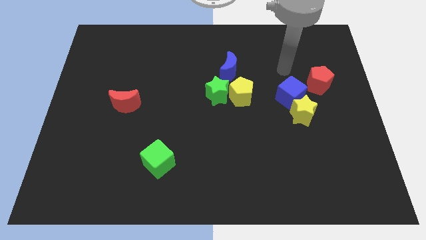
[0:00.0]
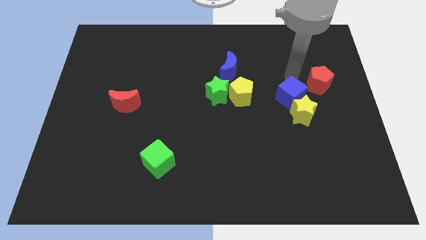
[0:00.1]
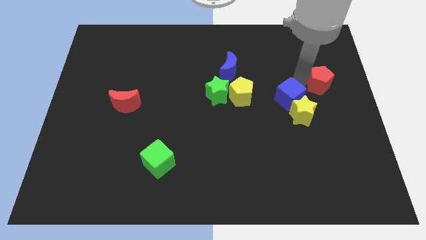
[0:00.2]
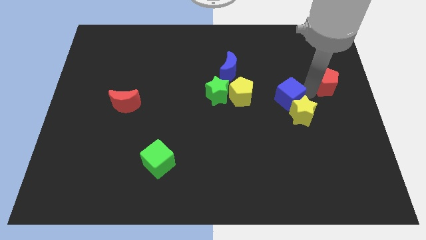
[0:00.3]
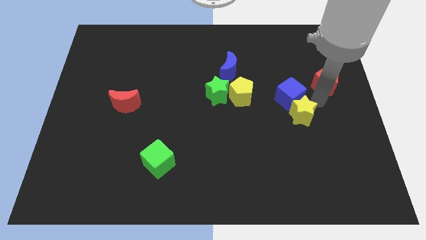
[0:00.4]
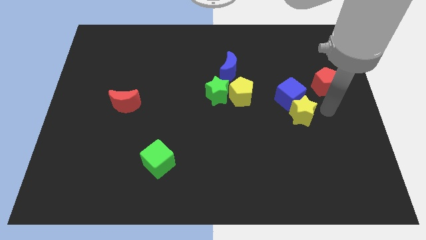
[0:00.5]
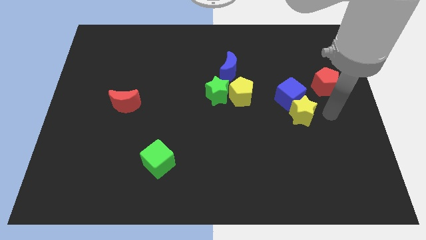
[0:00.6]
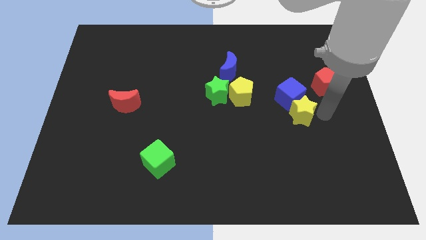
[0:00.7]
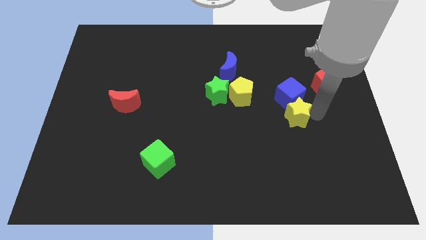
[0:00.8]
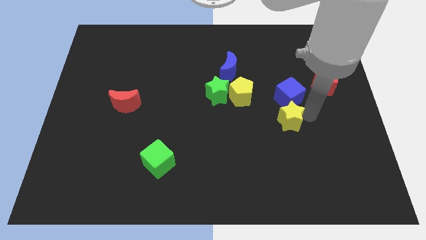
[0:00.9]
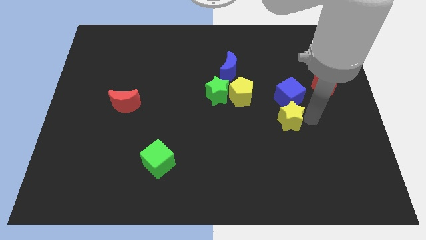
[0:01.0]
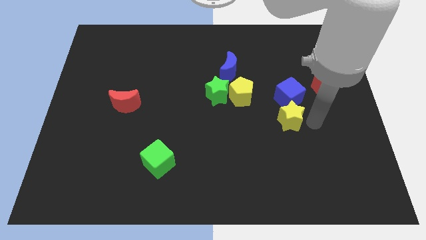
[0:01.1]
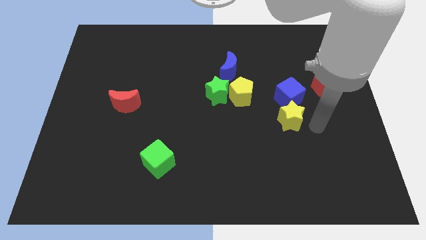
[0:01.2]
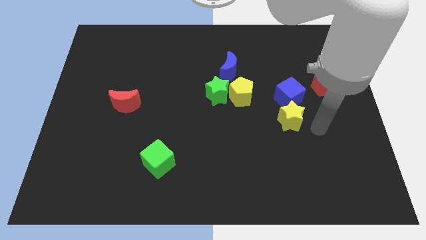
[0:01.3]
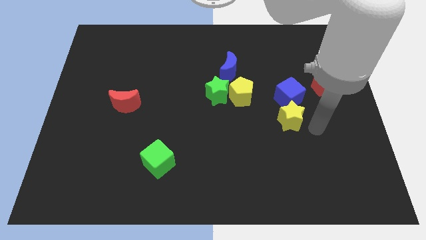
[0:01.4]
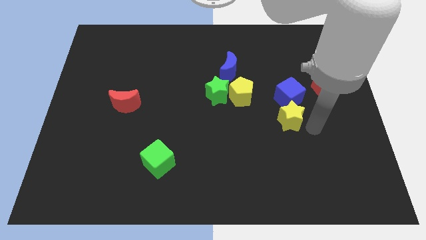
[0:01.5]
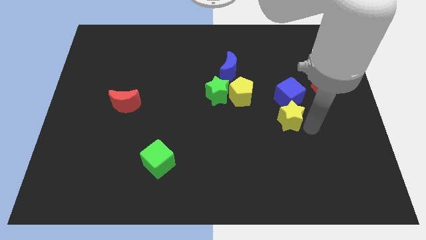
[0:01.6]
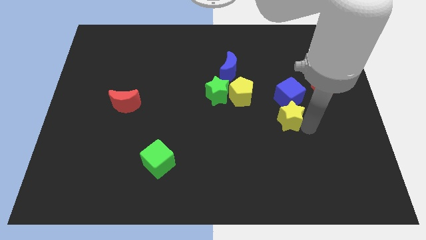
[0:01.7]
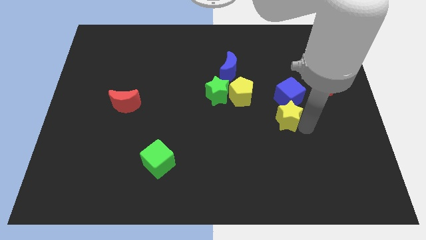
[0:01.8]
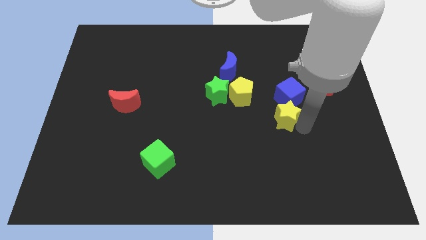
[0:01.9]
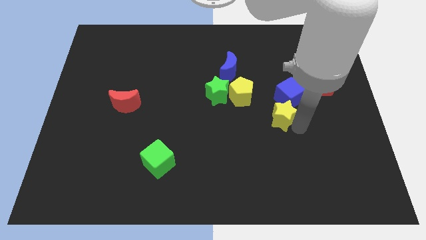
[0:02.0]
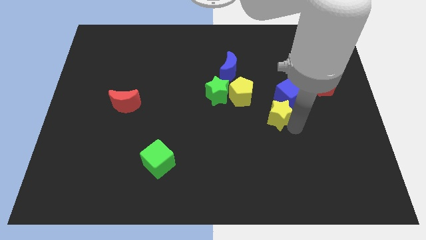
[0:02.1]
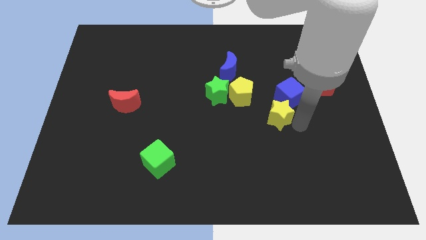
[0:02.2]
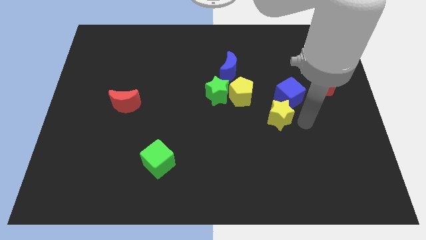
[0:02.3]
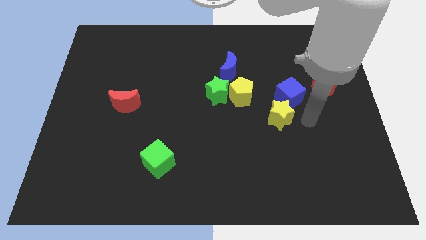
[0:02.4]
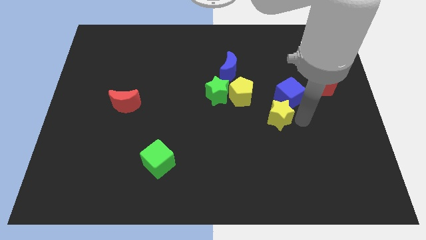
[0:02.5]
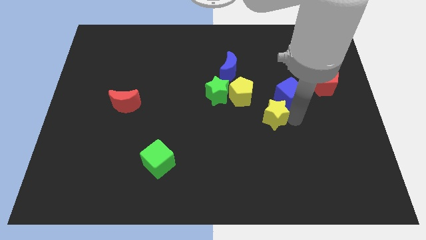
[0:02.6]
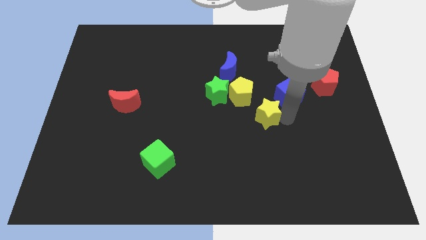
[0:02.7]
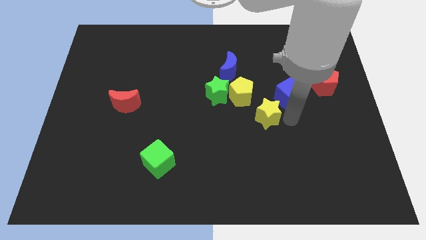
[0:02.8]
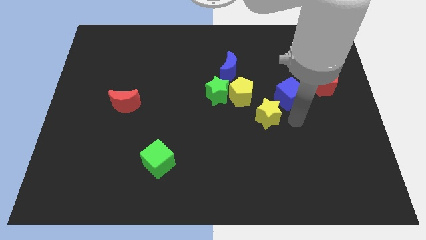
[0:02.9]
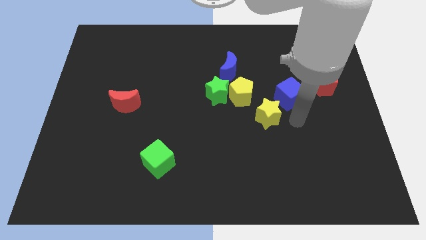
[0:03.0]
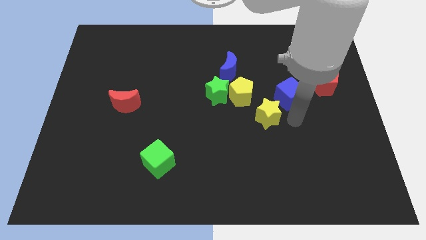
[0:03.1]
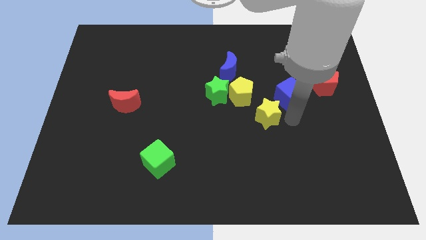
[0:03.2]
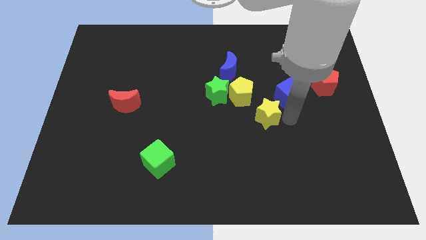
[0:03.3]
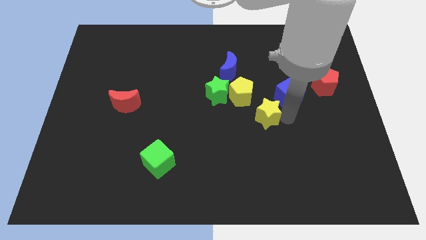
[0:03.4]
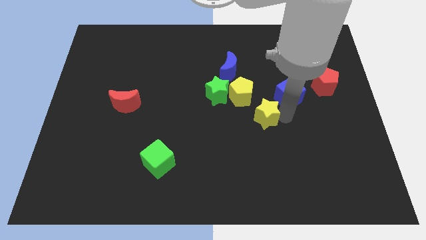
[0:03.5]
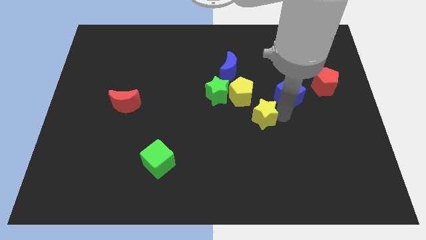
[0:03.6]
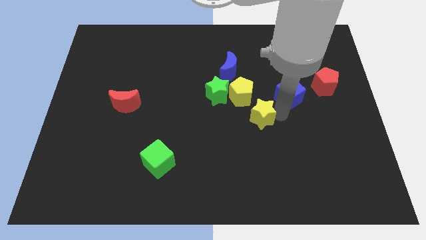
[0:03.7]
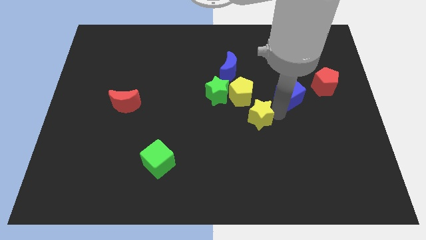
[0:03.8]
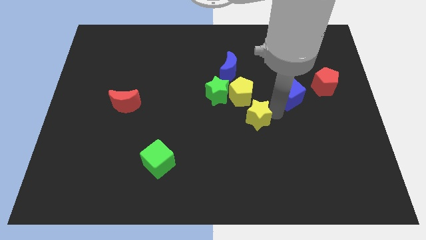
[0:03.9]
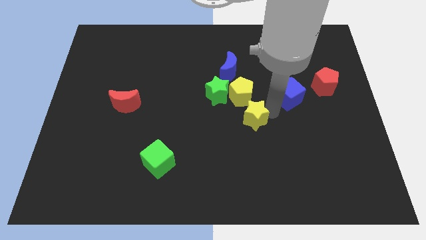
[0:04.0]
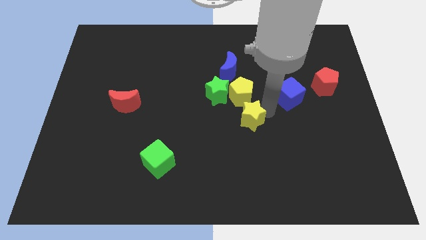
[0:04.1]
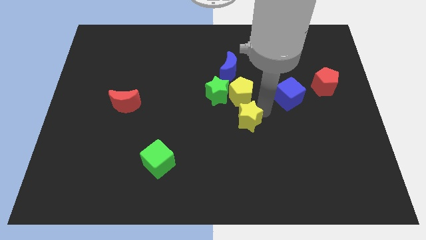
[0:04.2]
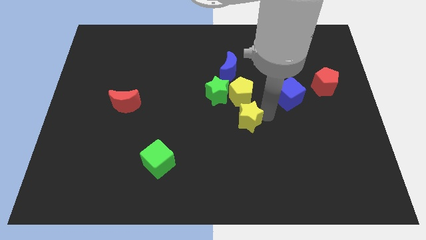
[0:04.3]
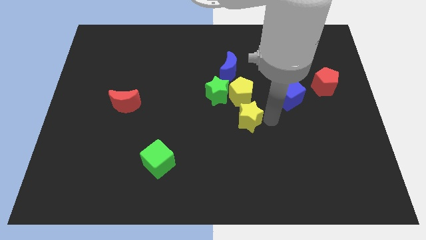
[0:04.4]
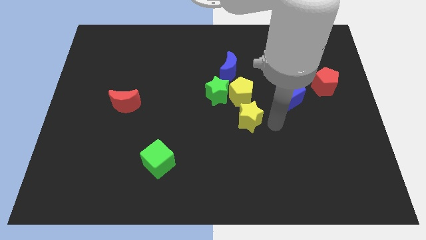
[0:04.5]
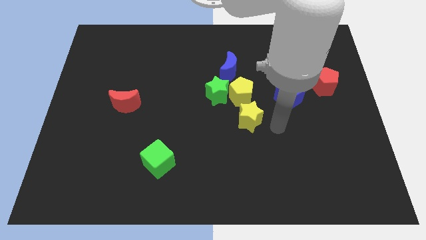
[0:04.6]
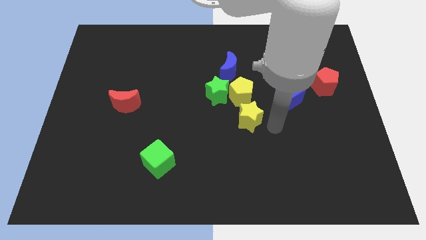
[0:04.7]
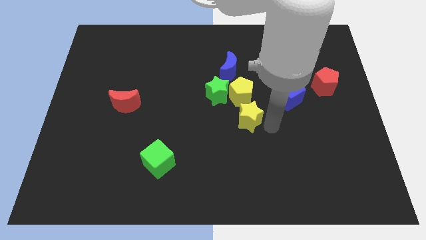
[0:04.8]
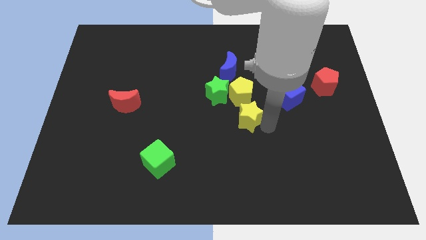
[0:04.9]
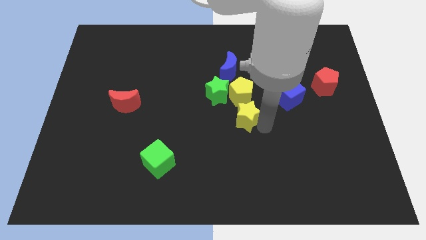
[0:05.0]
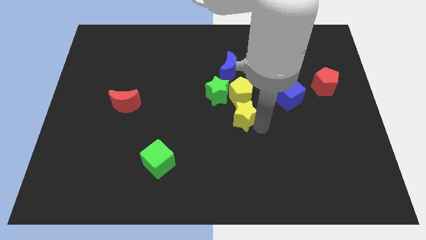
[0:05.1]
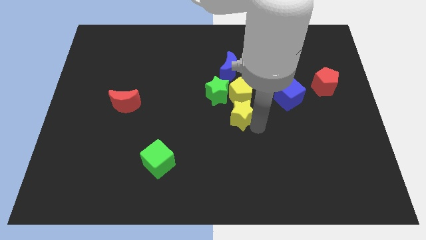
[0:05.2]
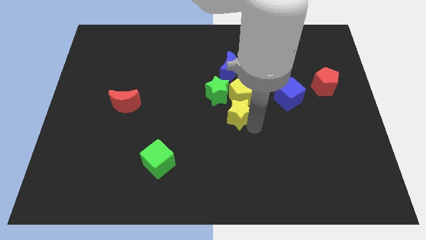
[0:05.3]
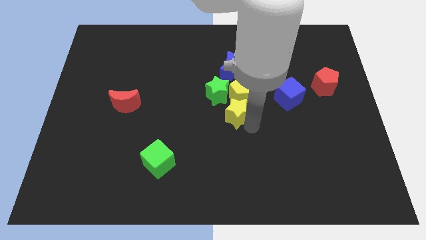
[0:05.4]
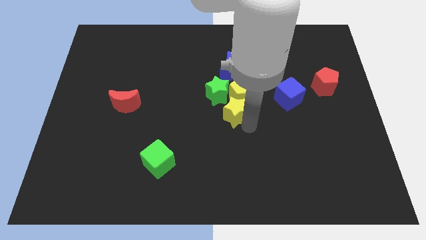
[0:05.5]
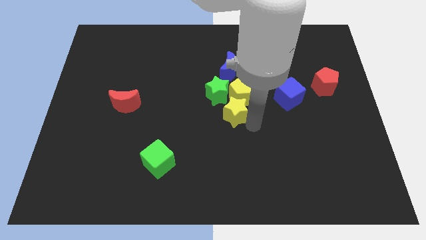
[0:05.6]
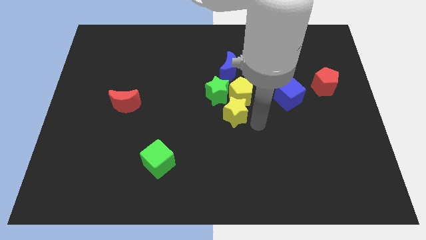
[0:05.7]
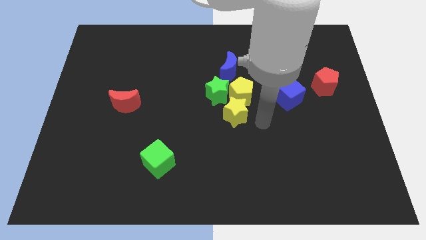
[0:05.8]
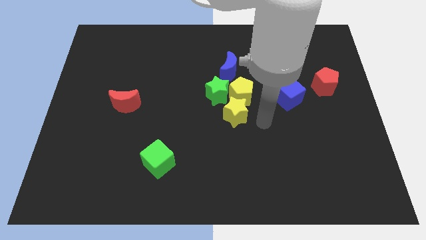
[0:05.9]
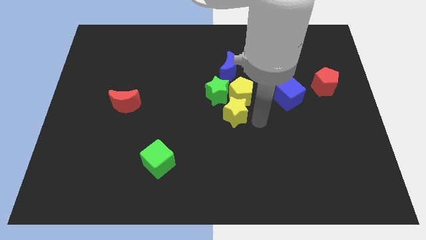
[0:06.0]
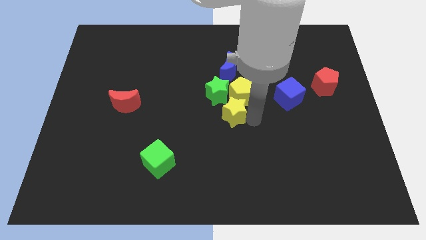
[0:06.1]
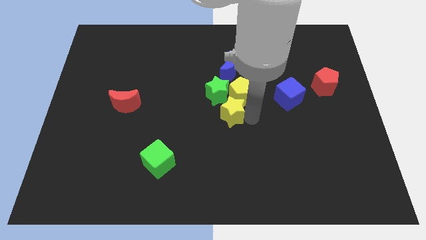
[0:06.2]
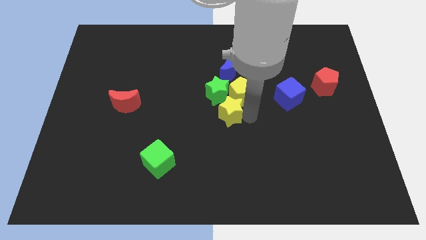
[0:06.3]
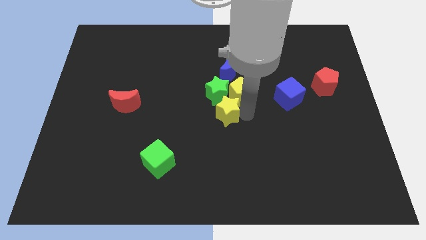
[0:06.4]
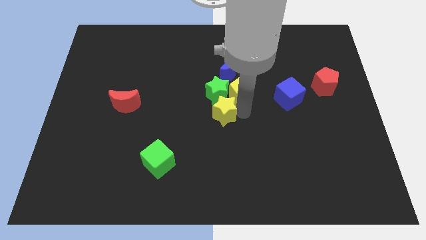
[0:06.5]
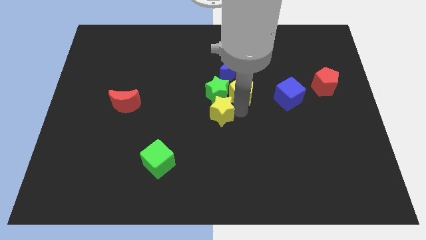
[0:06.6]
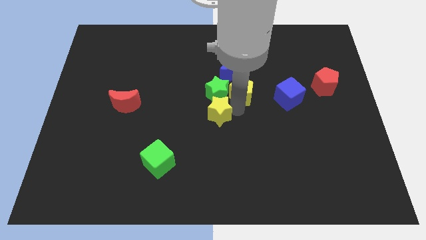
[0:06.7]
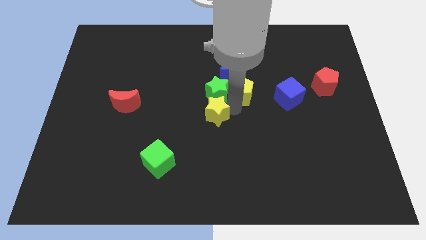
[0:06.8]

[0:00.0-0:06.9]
slide the yellow star left

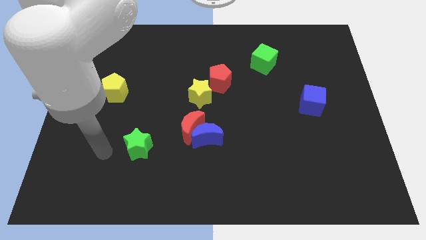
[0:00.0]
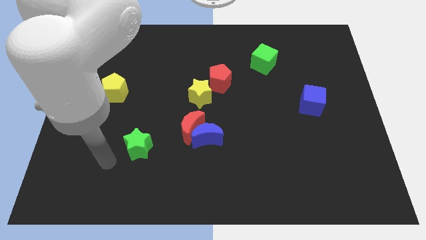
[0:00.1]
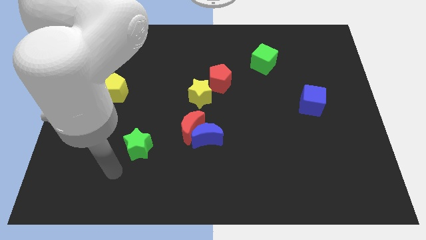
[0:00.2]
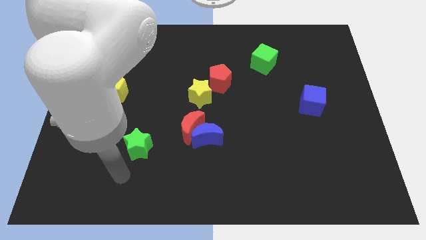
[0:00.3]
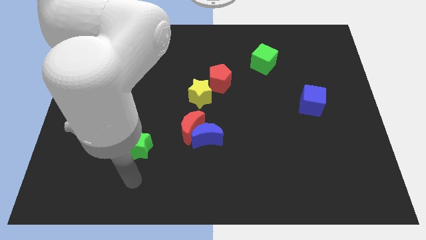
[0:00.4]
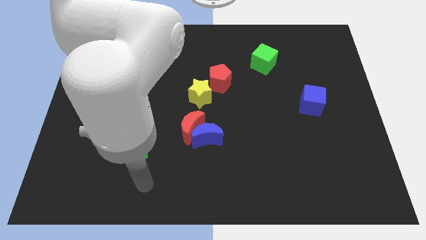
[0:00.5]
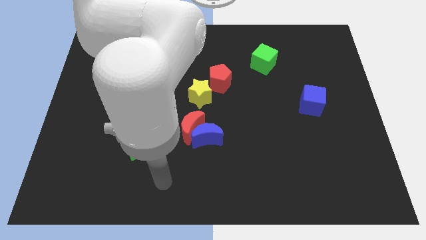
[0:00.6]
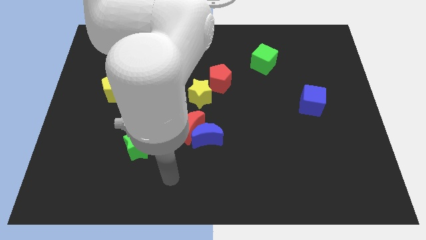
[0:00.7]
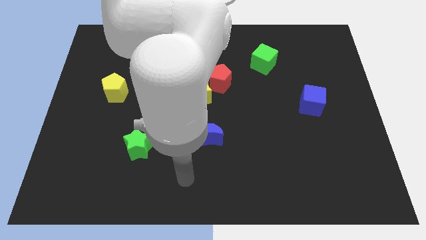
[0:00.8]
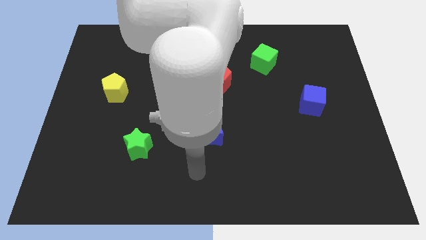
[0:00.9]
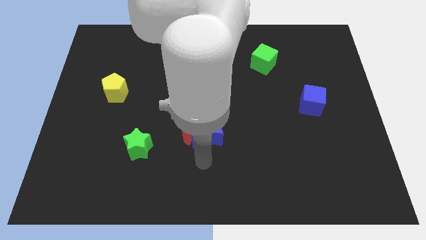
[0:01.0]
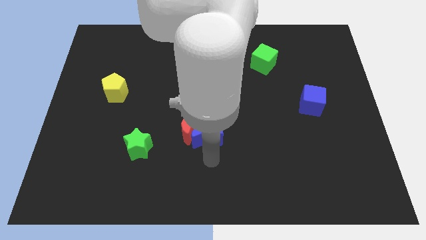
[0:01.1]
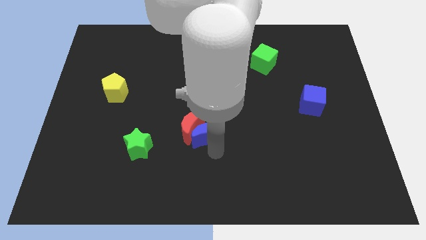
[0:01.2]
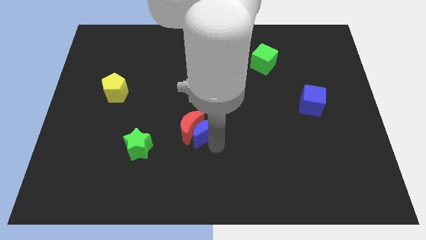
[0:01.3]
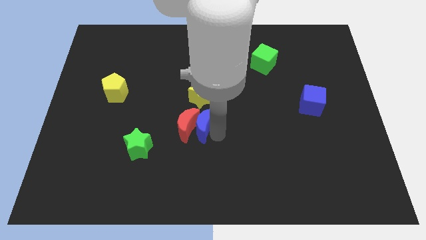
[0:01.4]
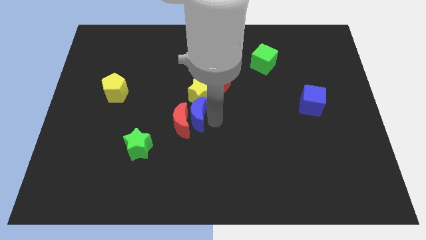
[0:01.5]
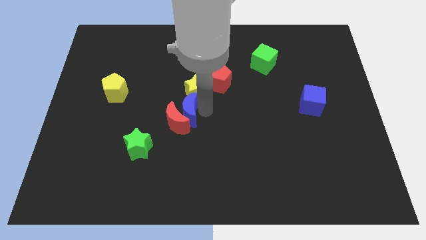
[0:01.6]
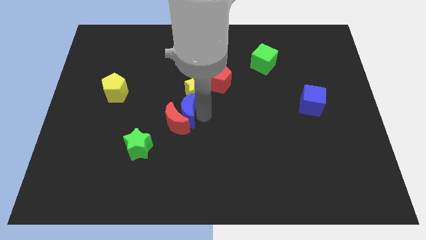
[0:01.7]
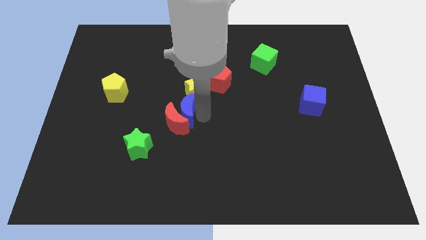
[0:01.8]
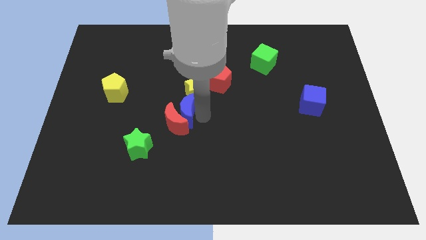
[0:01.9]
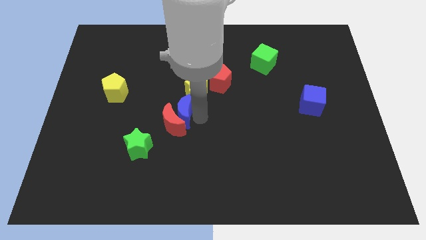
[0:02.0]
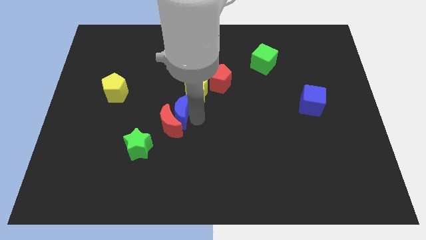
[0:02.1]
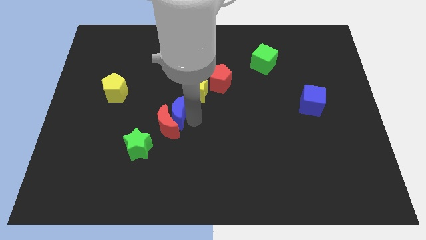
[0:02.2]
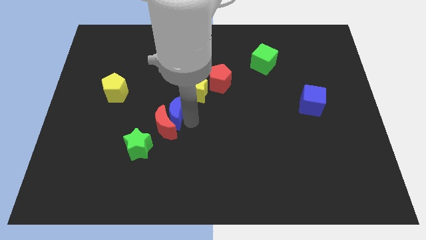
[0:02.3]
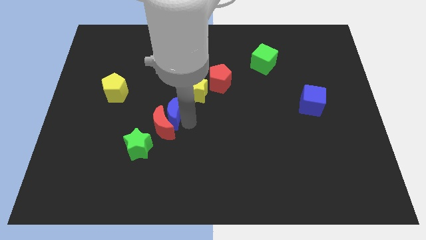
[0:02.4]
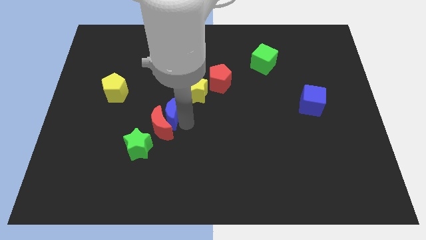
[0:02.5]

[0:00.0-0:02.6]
move the red moon a little to the left
